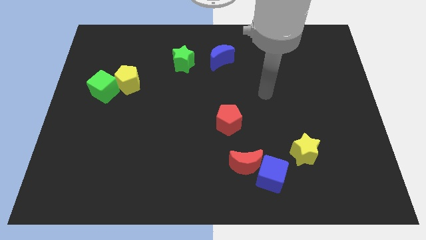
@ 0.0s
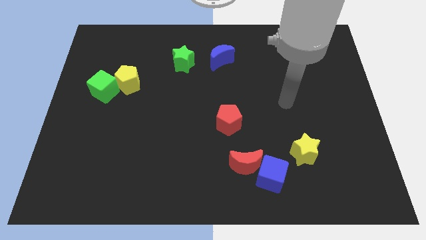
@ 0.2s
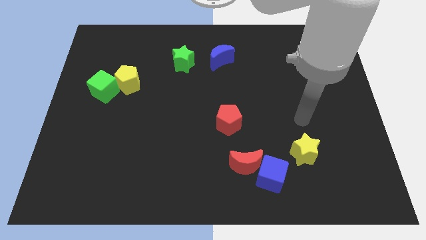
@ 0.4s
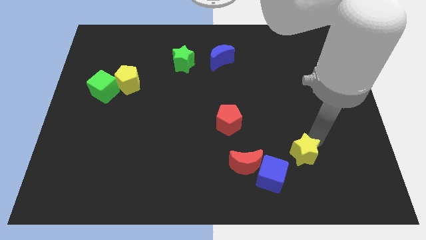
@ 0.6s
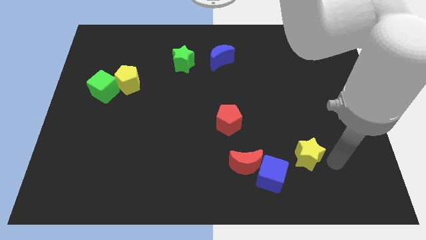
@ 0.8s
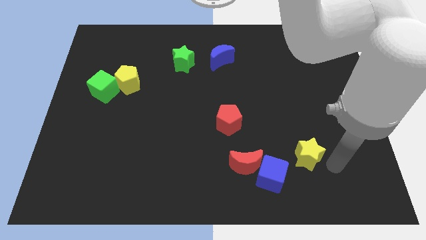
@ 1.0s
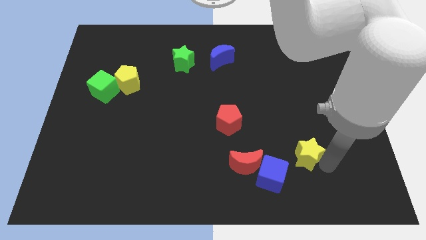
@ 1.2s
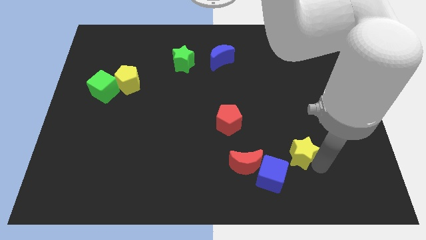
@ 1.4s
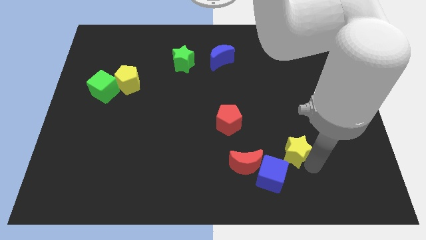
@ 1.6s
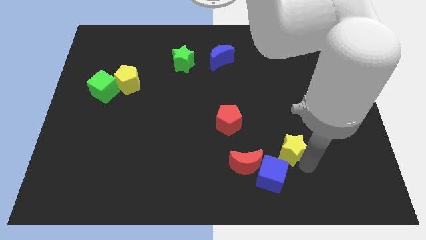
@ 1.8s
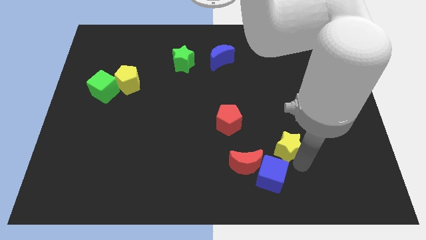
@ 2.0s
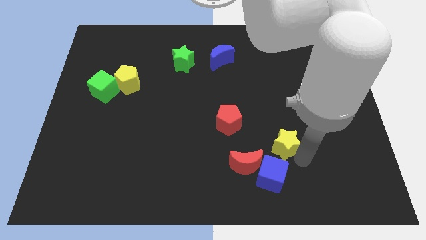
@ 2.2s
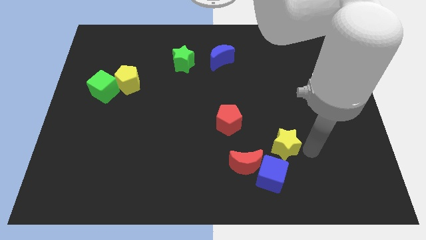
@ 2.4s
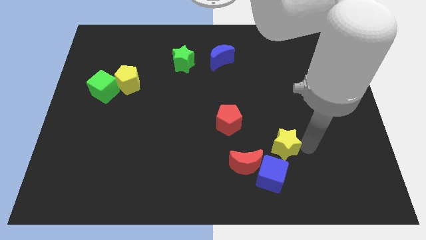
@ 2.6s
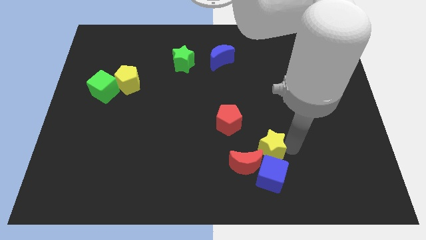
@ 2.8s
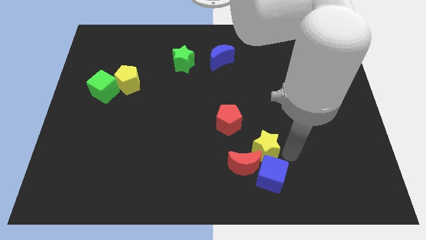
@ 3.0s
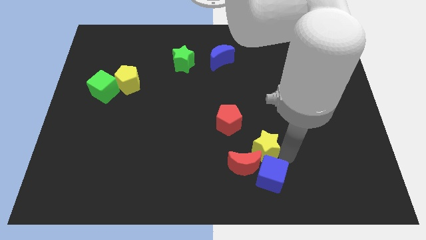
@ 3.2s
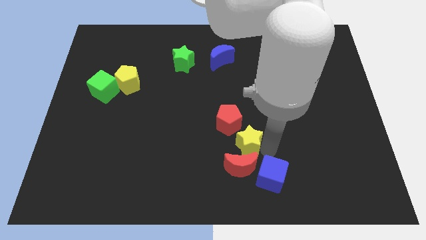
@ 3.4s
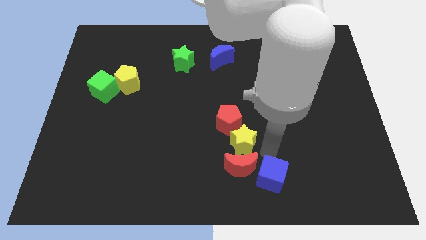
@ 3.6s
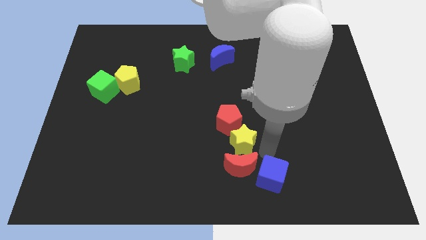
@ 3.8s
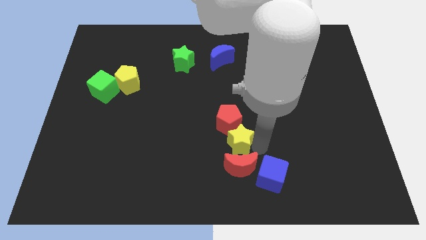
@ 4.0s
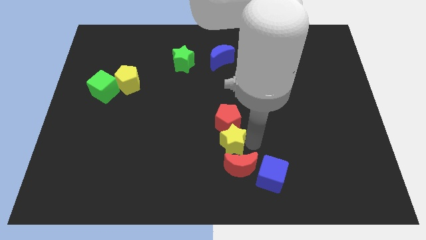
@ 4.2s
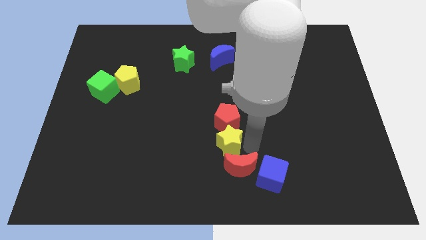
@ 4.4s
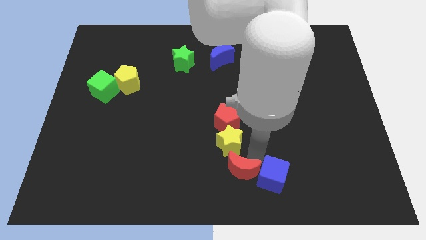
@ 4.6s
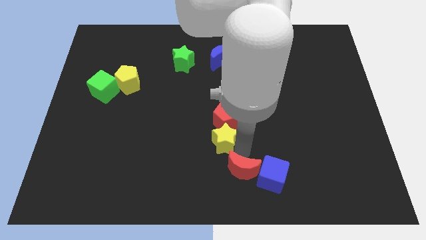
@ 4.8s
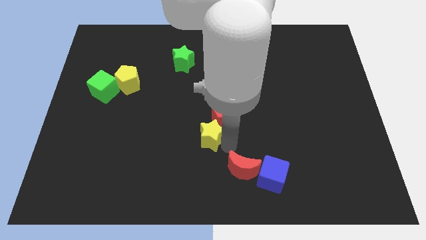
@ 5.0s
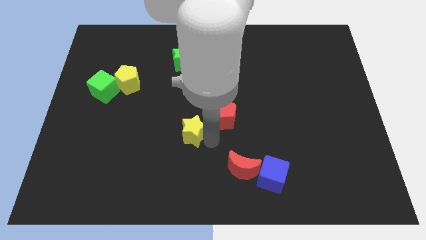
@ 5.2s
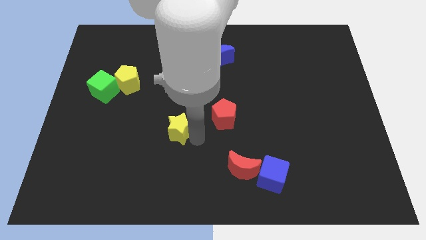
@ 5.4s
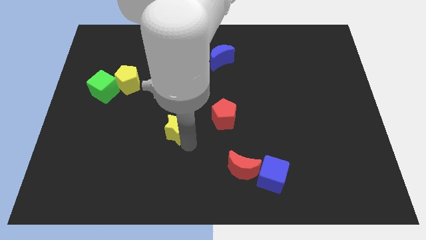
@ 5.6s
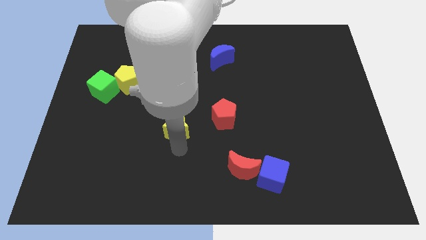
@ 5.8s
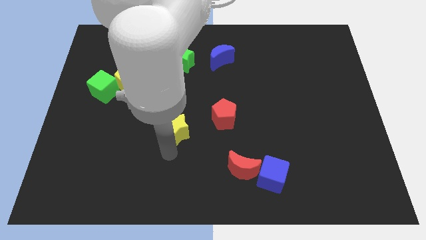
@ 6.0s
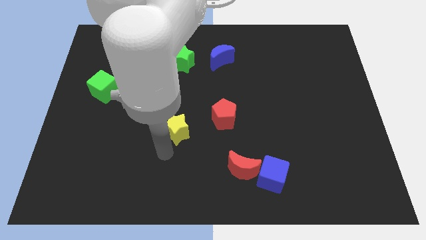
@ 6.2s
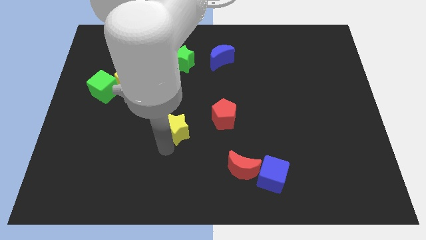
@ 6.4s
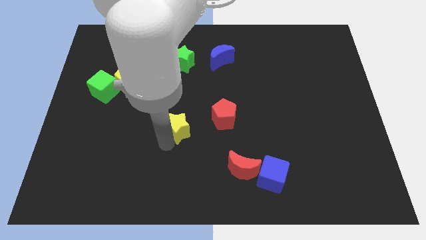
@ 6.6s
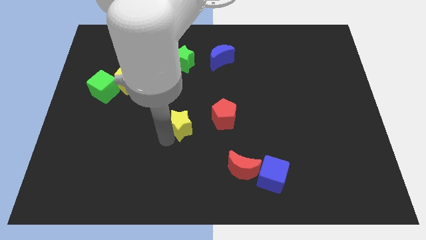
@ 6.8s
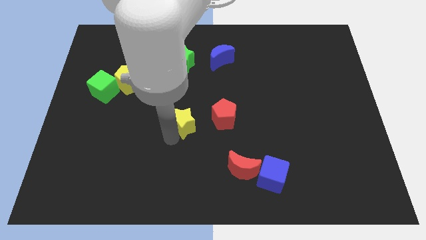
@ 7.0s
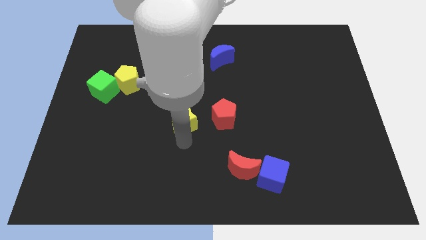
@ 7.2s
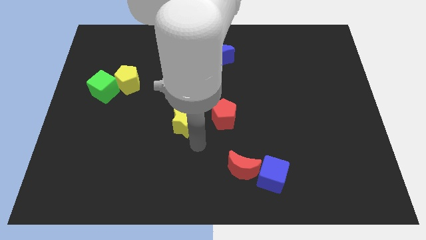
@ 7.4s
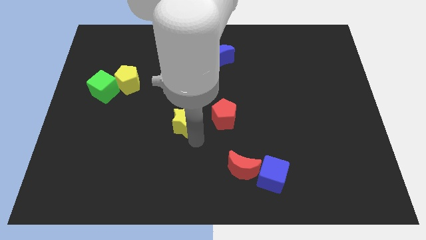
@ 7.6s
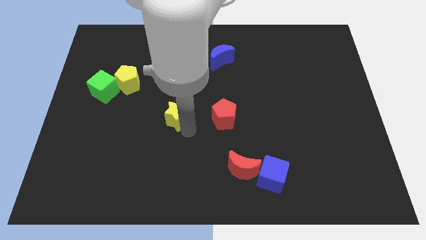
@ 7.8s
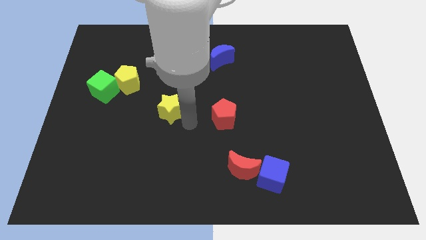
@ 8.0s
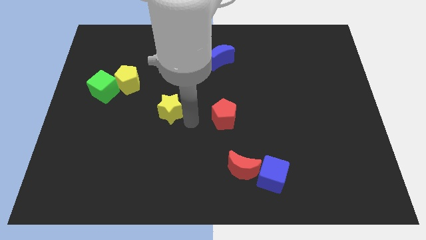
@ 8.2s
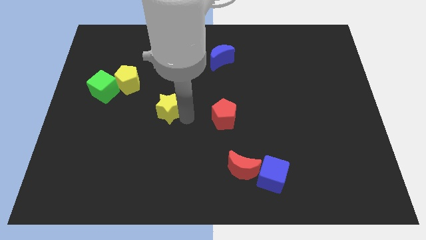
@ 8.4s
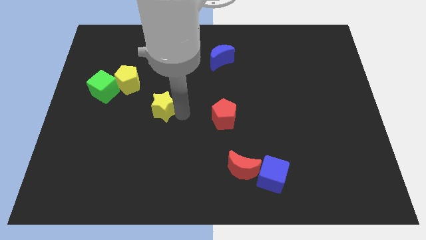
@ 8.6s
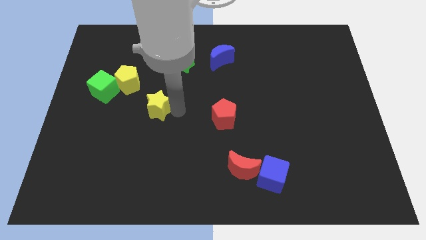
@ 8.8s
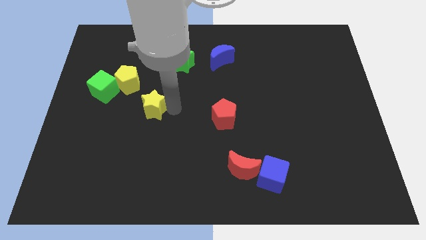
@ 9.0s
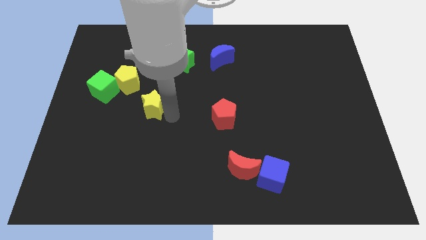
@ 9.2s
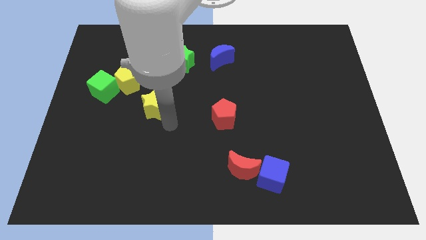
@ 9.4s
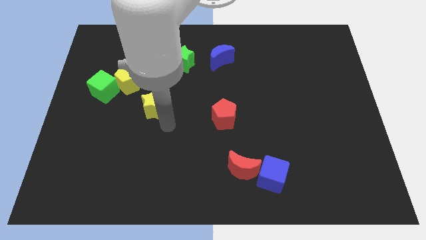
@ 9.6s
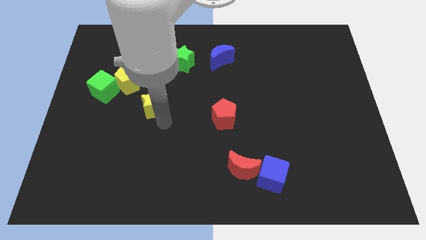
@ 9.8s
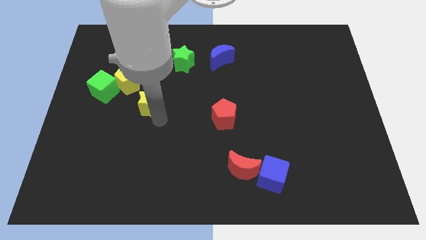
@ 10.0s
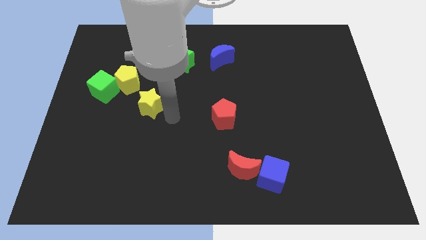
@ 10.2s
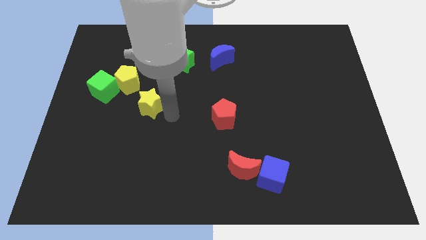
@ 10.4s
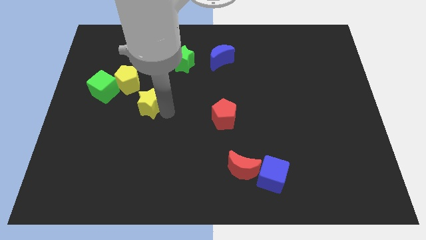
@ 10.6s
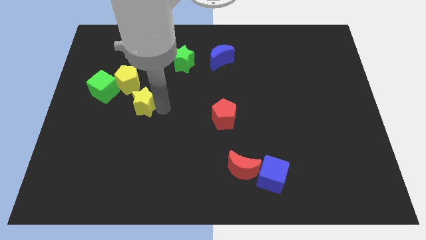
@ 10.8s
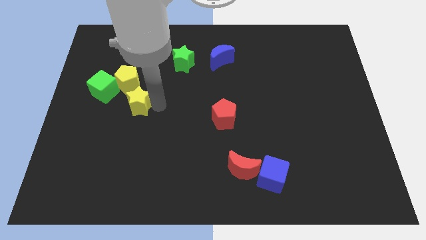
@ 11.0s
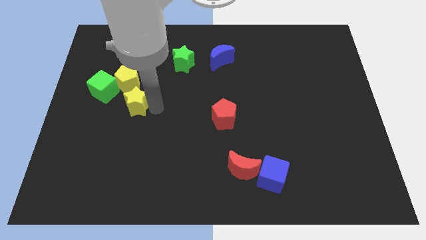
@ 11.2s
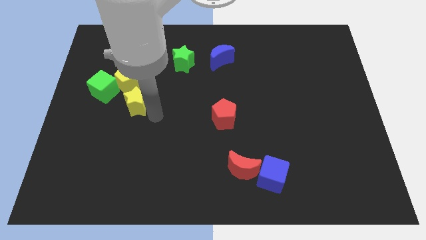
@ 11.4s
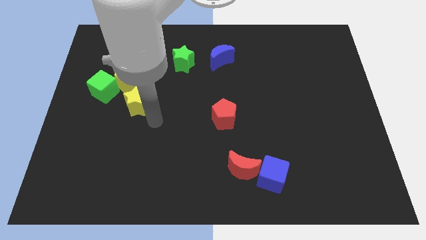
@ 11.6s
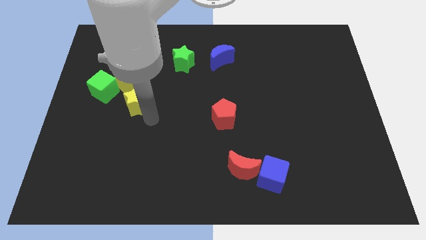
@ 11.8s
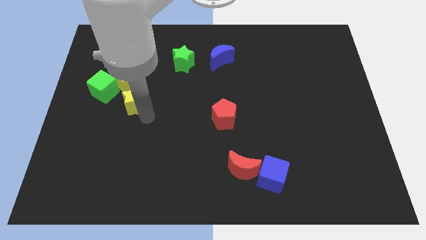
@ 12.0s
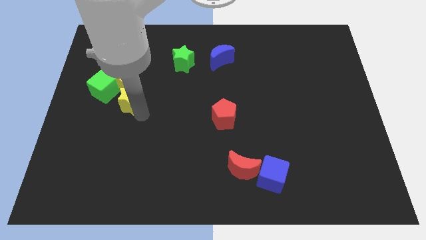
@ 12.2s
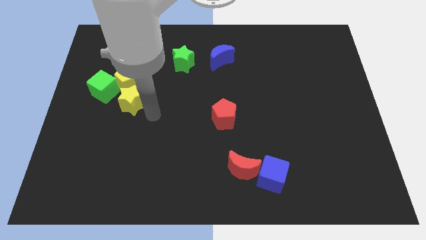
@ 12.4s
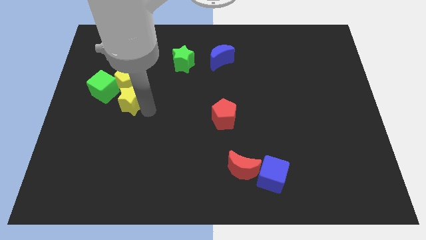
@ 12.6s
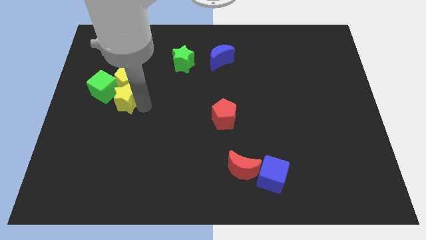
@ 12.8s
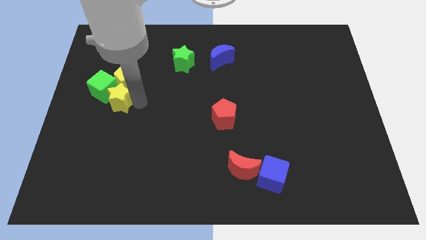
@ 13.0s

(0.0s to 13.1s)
push the yellow star close to the green cube
